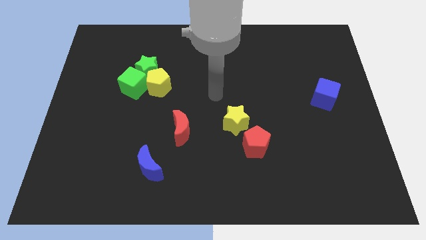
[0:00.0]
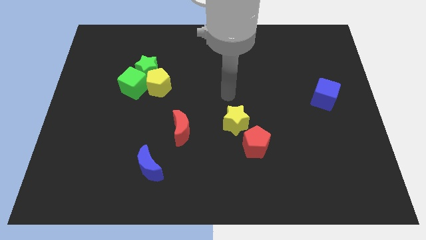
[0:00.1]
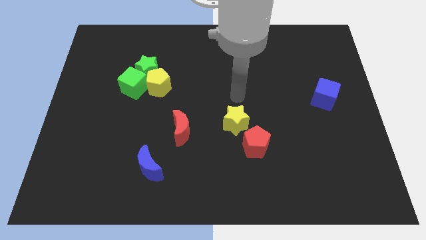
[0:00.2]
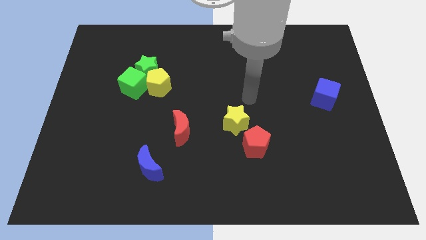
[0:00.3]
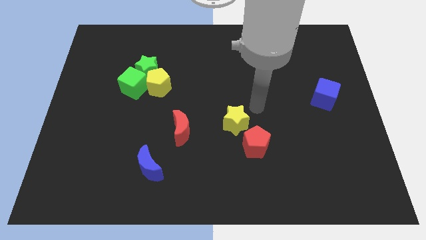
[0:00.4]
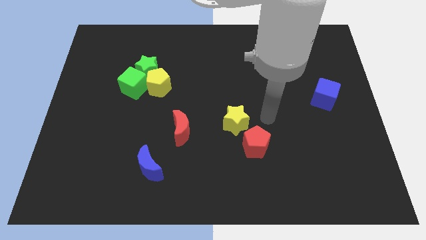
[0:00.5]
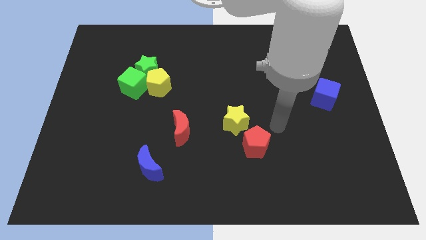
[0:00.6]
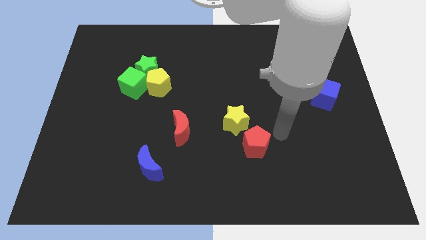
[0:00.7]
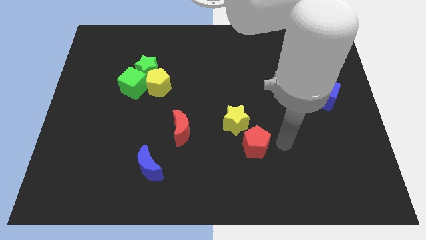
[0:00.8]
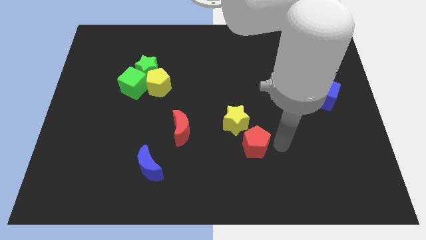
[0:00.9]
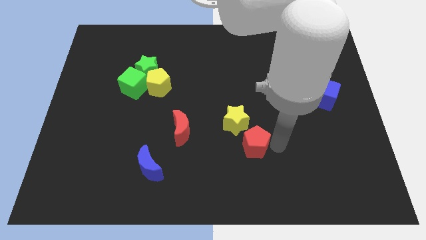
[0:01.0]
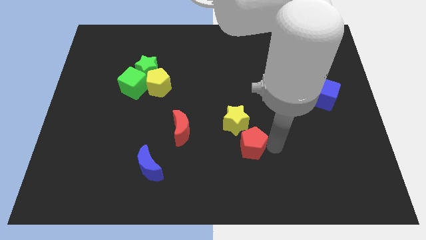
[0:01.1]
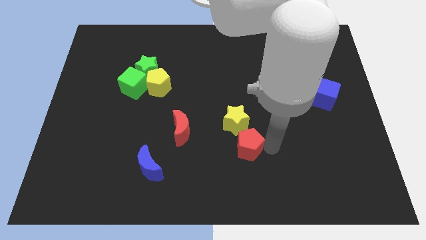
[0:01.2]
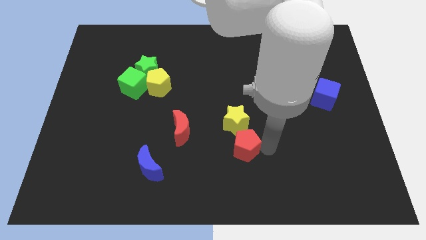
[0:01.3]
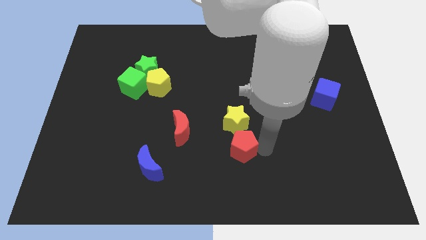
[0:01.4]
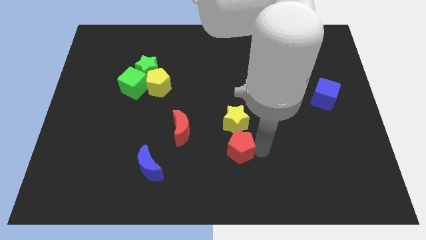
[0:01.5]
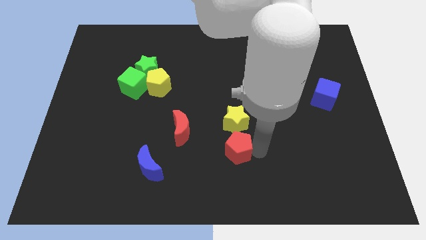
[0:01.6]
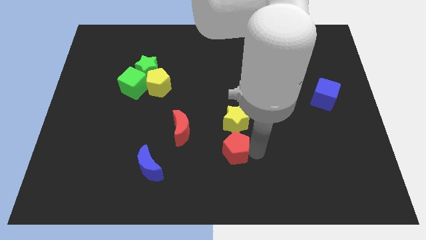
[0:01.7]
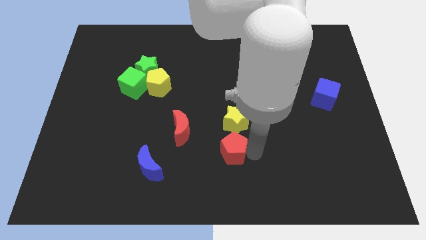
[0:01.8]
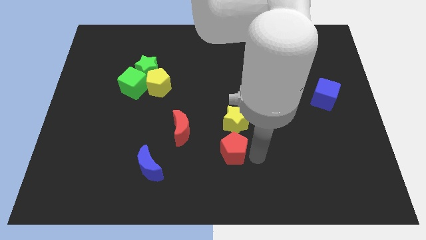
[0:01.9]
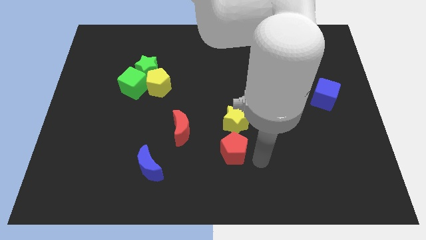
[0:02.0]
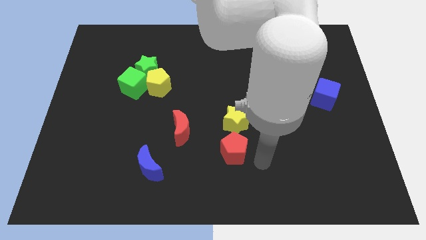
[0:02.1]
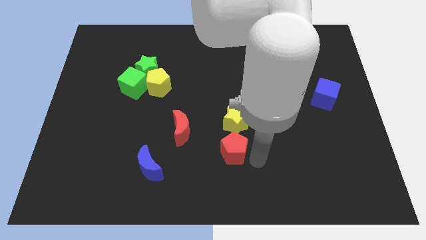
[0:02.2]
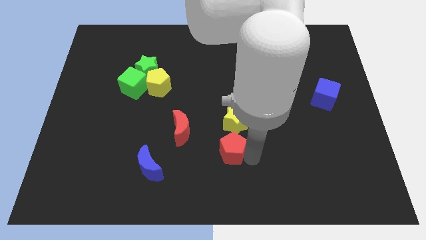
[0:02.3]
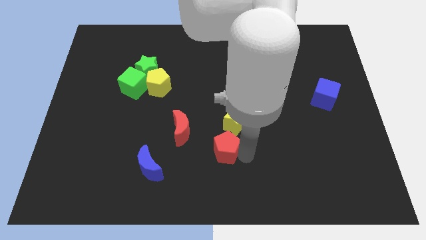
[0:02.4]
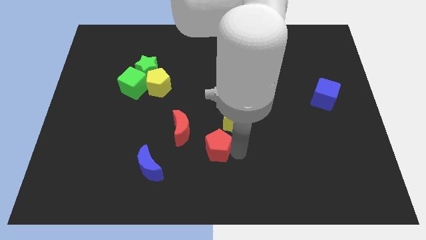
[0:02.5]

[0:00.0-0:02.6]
slide the red pentagon a bit to the left

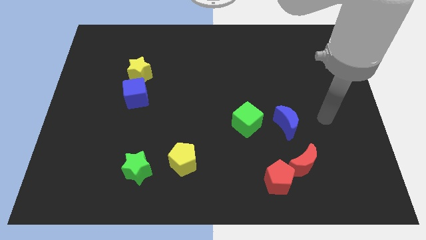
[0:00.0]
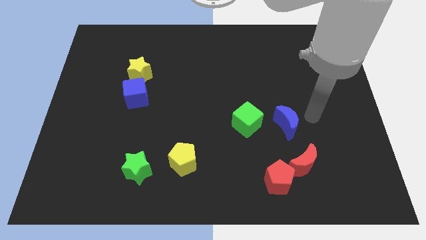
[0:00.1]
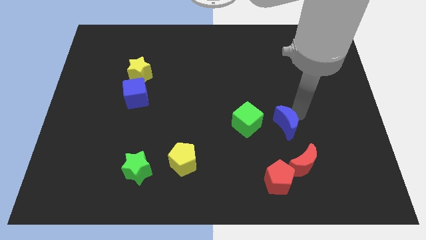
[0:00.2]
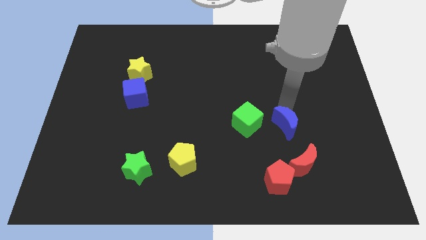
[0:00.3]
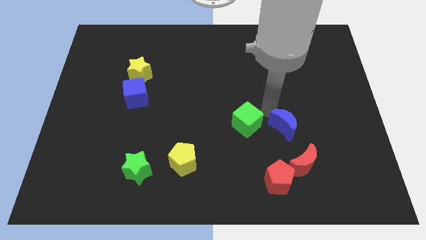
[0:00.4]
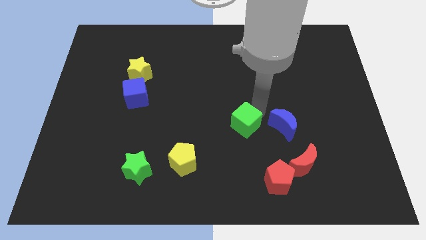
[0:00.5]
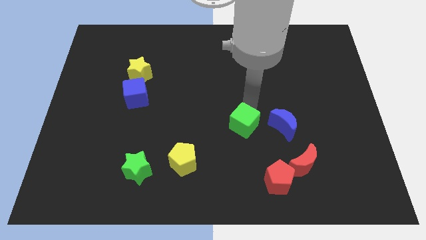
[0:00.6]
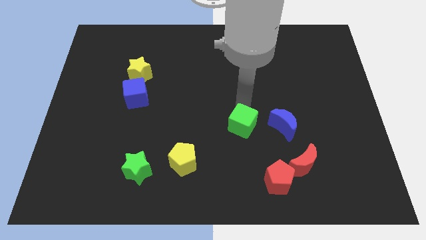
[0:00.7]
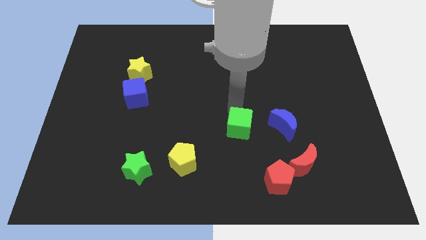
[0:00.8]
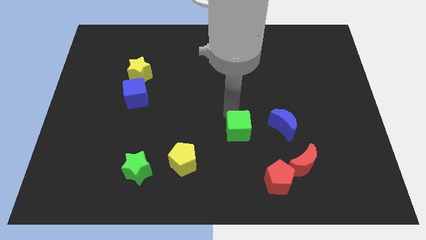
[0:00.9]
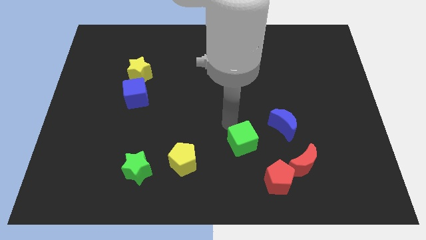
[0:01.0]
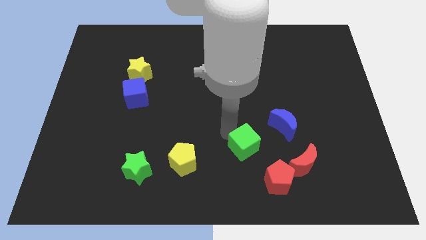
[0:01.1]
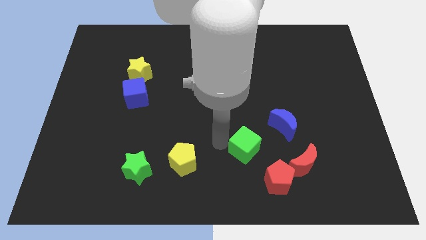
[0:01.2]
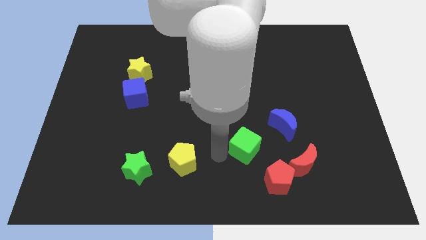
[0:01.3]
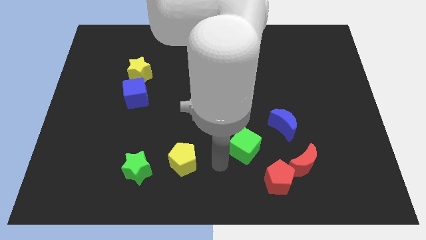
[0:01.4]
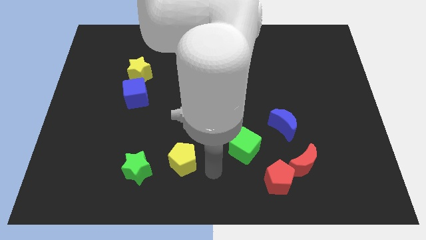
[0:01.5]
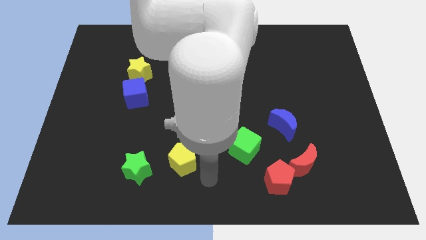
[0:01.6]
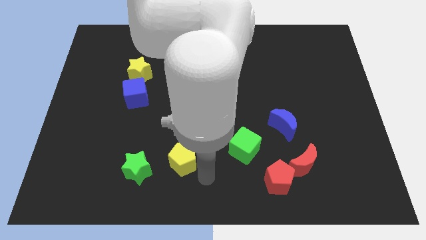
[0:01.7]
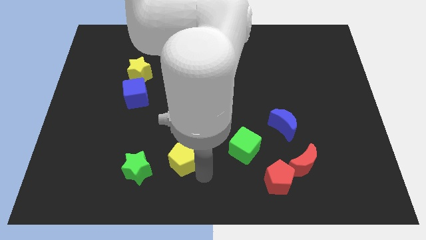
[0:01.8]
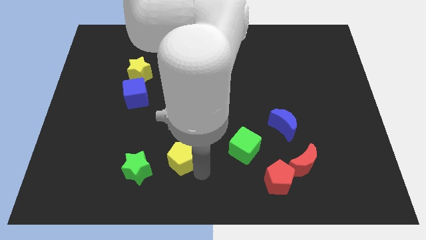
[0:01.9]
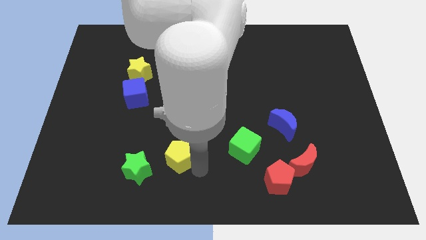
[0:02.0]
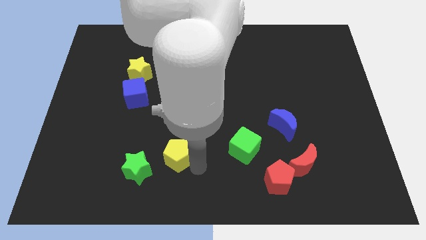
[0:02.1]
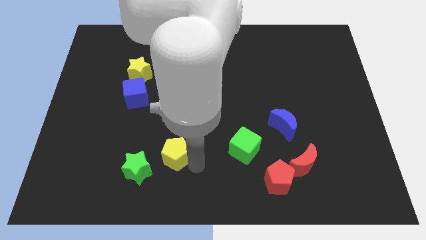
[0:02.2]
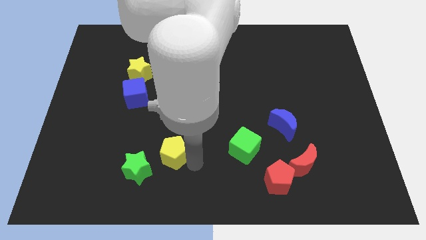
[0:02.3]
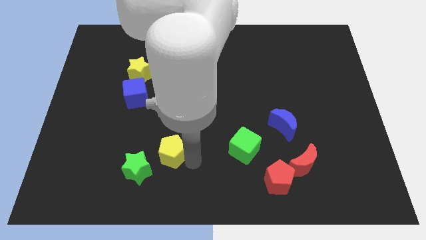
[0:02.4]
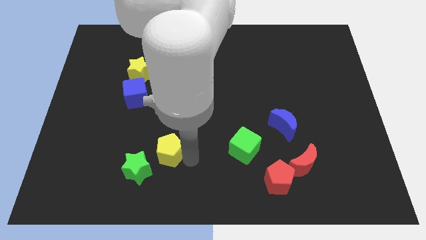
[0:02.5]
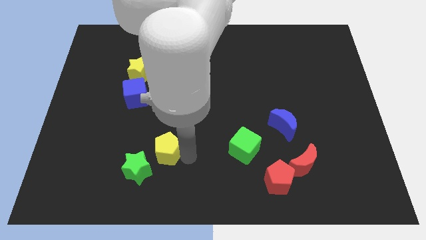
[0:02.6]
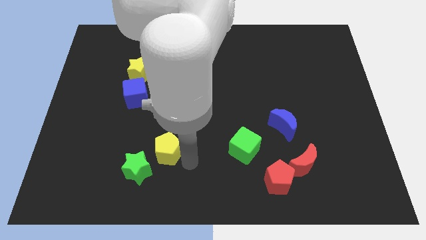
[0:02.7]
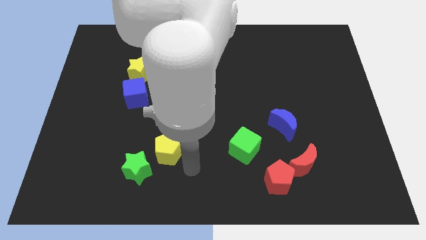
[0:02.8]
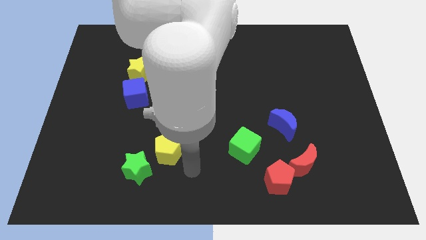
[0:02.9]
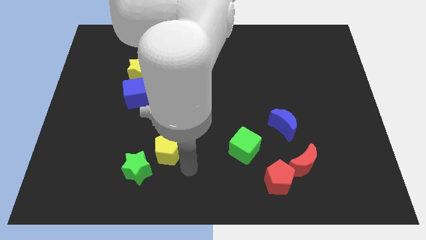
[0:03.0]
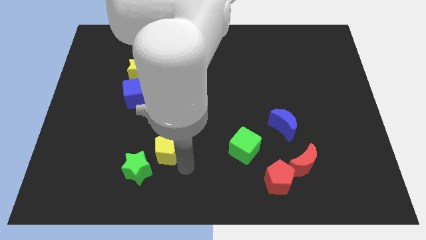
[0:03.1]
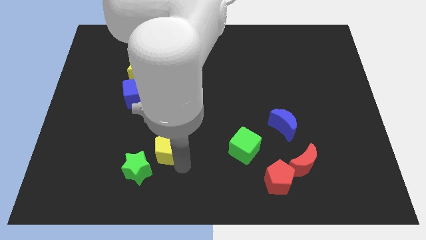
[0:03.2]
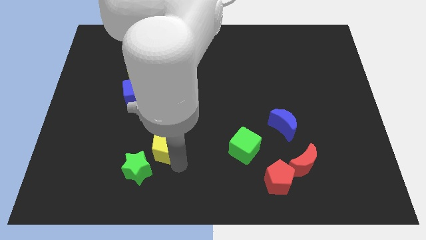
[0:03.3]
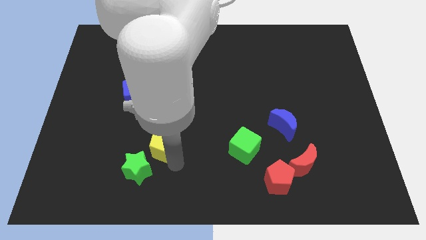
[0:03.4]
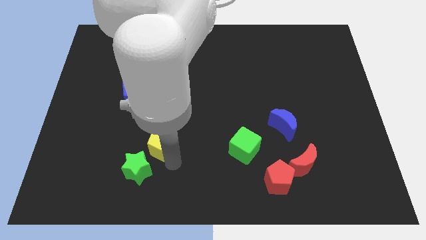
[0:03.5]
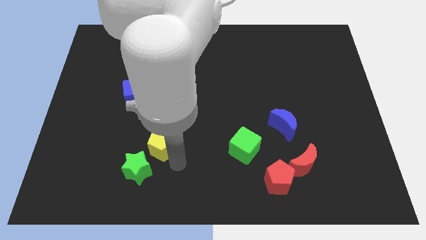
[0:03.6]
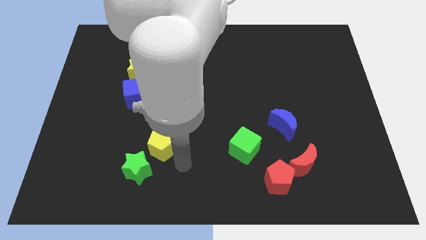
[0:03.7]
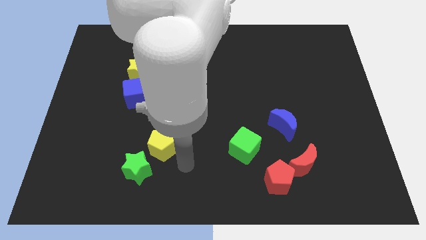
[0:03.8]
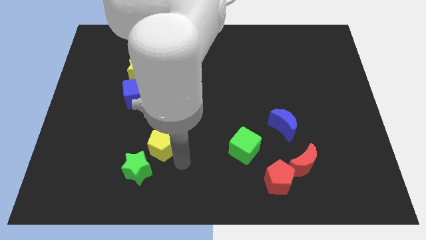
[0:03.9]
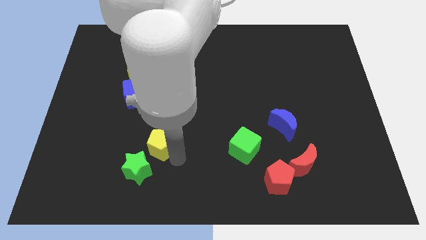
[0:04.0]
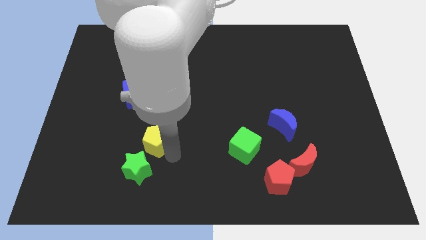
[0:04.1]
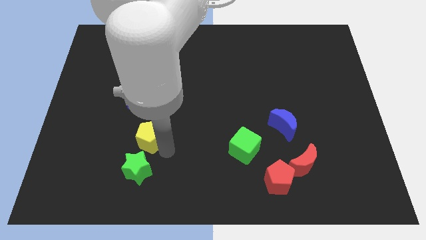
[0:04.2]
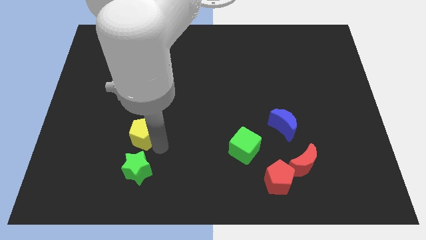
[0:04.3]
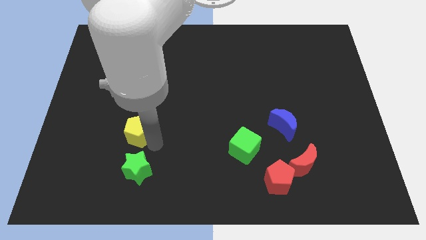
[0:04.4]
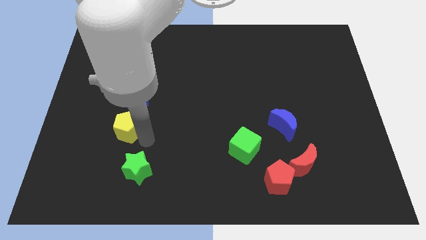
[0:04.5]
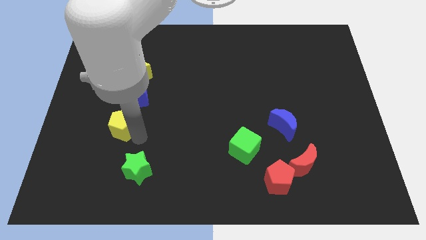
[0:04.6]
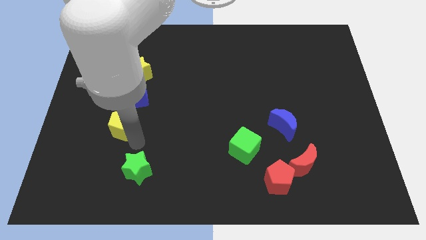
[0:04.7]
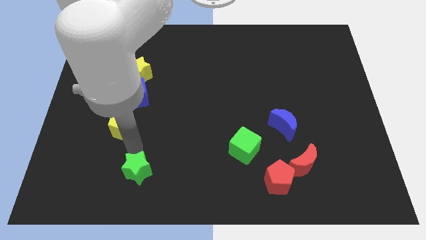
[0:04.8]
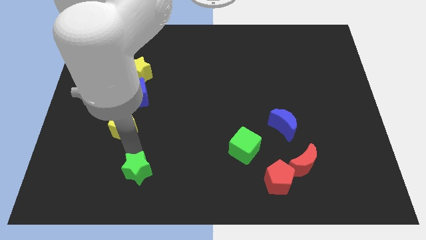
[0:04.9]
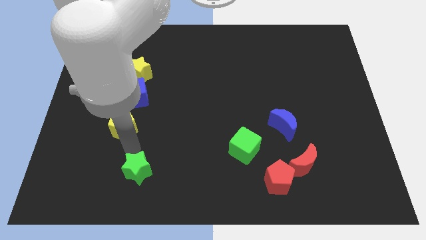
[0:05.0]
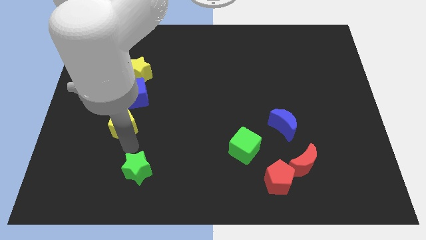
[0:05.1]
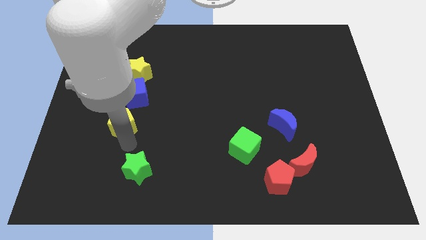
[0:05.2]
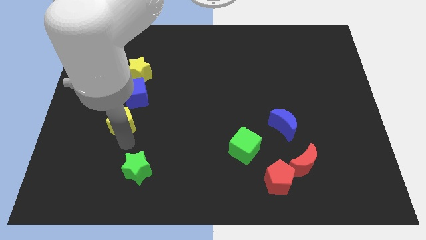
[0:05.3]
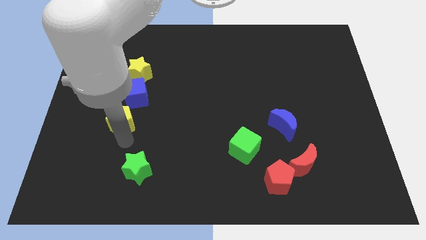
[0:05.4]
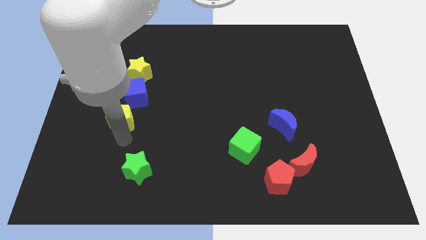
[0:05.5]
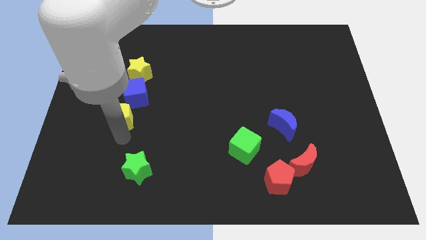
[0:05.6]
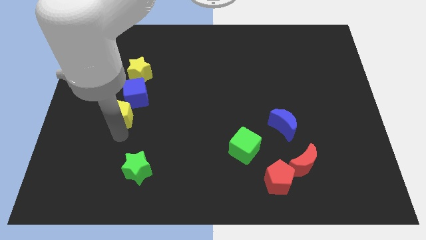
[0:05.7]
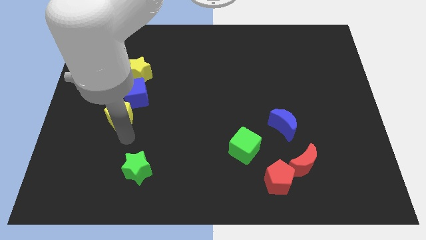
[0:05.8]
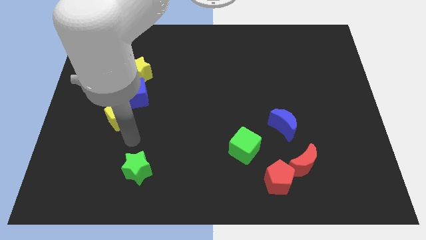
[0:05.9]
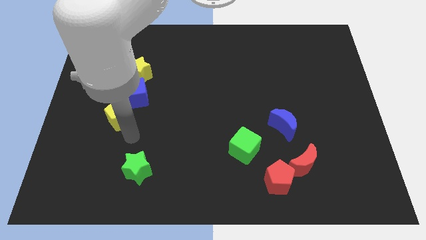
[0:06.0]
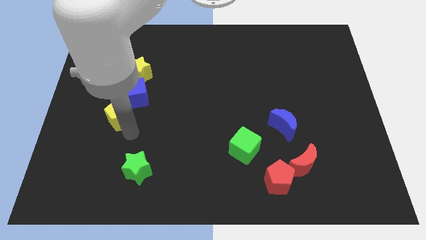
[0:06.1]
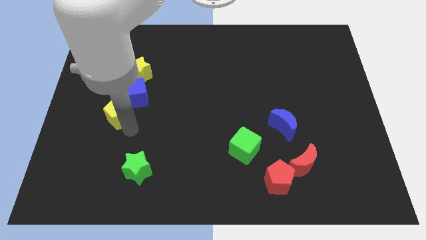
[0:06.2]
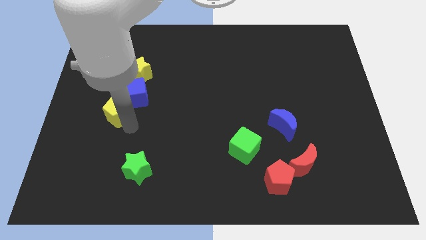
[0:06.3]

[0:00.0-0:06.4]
slide the yellow pentagon up and then to the left
